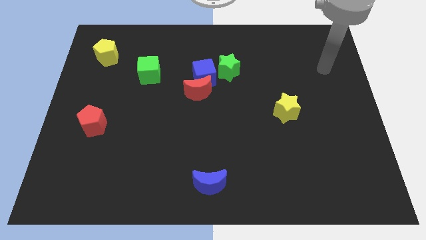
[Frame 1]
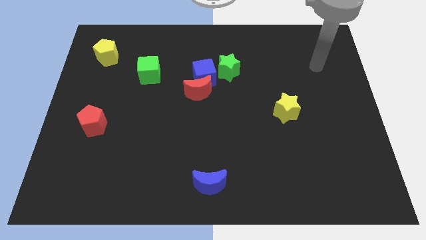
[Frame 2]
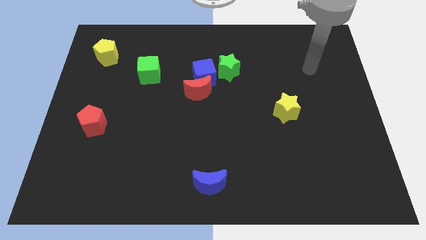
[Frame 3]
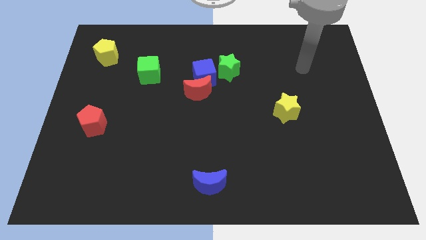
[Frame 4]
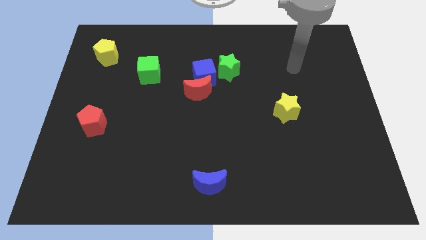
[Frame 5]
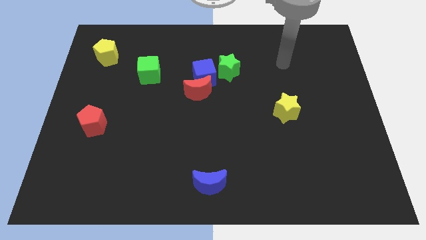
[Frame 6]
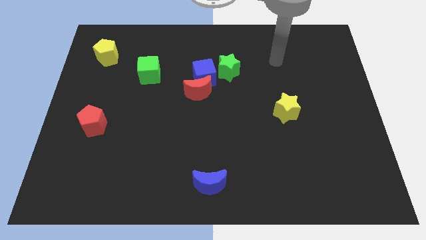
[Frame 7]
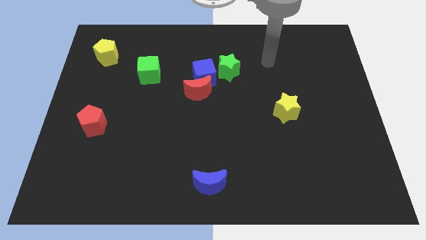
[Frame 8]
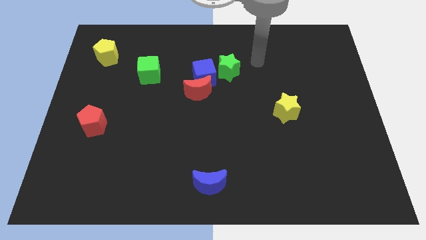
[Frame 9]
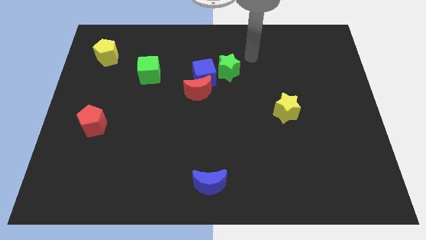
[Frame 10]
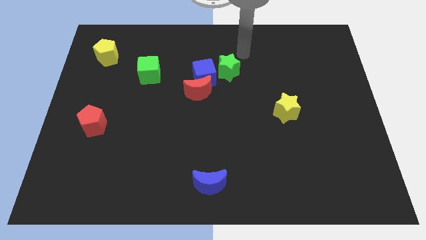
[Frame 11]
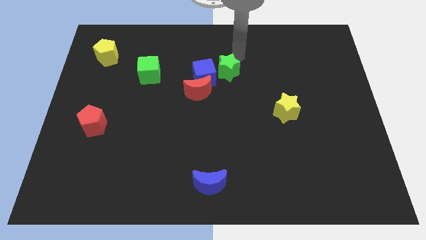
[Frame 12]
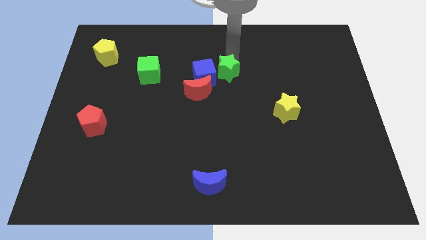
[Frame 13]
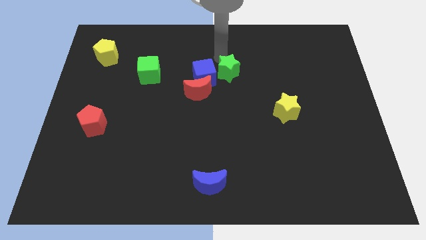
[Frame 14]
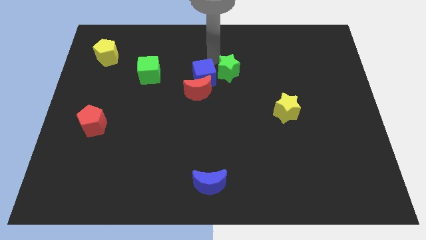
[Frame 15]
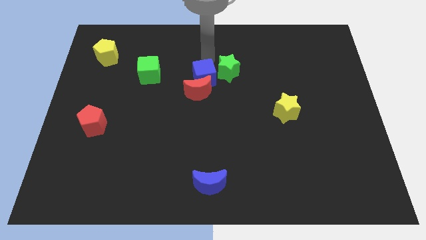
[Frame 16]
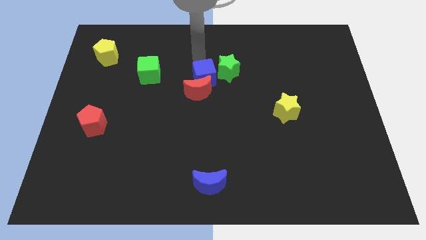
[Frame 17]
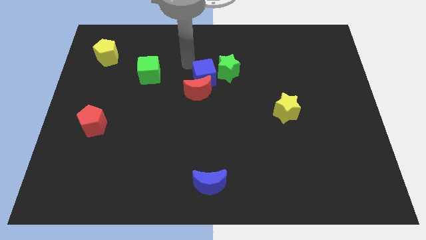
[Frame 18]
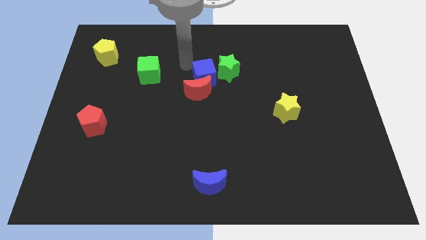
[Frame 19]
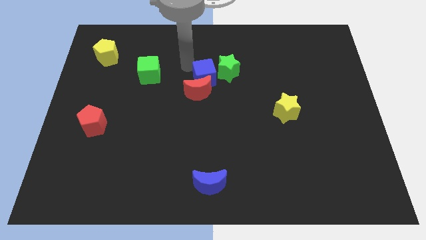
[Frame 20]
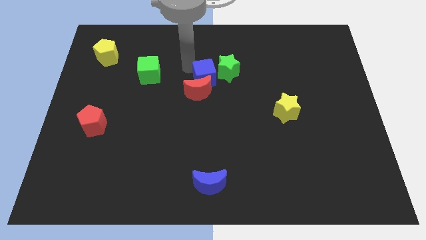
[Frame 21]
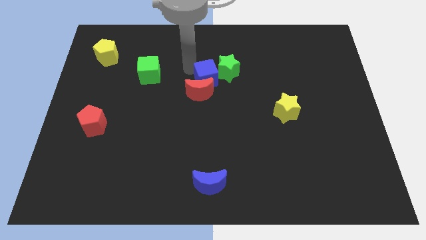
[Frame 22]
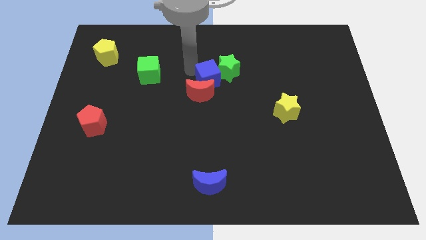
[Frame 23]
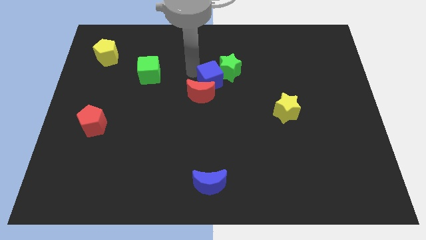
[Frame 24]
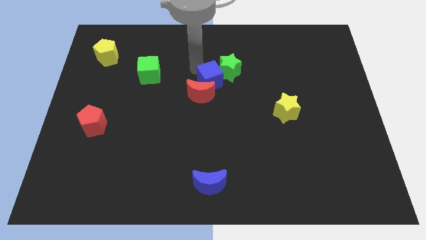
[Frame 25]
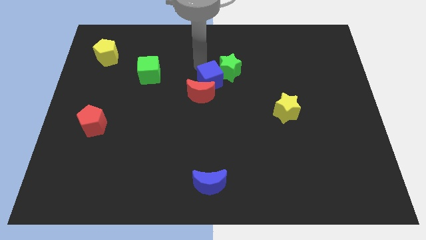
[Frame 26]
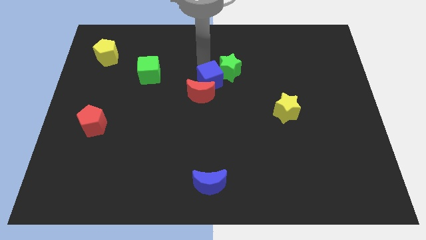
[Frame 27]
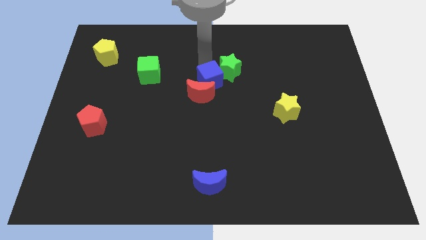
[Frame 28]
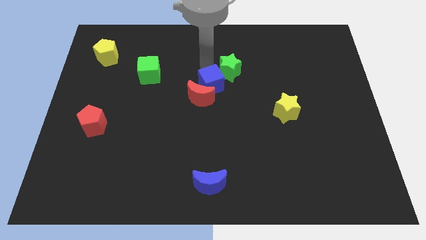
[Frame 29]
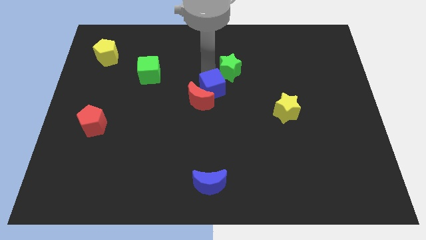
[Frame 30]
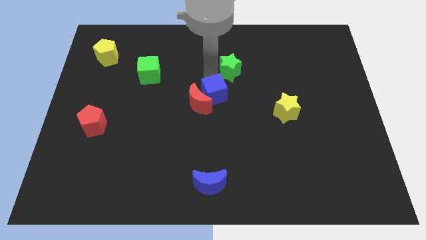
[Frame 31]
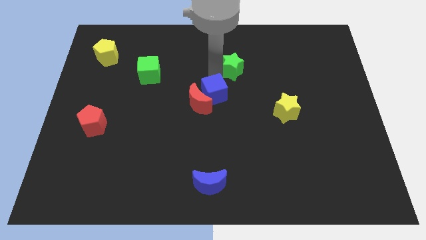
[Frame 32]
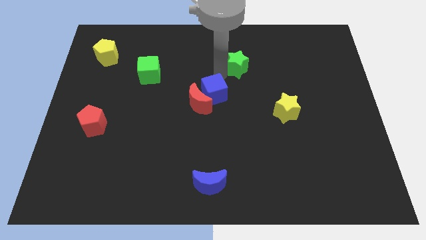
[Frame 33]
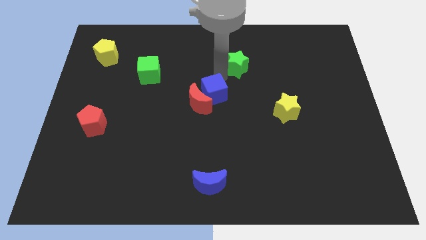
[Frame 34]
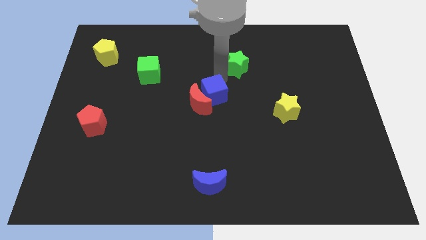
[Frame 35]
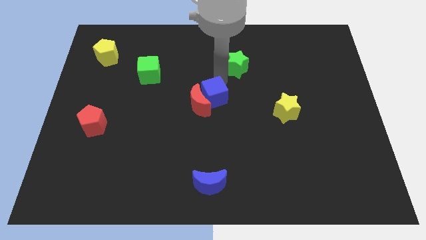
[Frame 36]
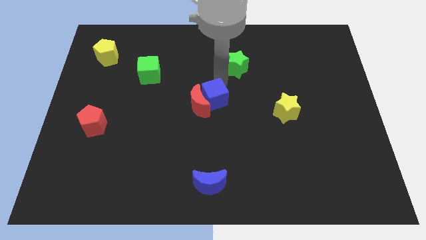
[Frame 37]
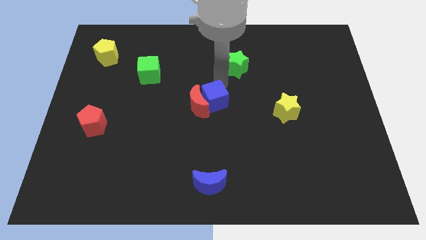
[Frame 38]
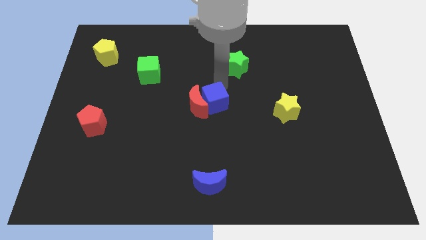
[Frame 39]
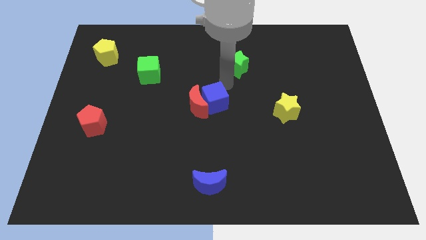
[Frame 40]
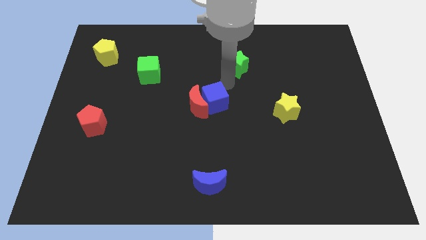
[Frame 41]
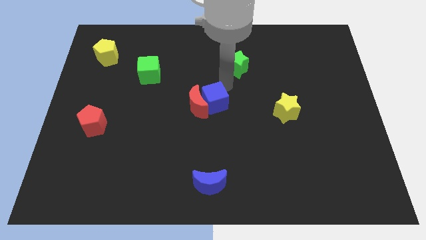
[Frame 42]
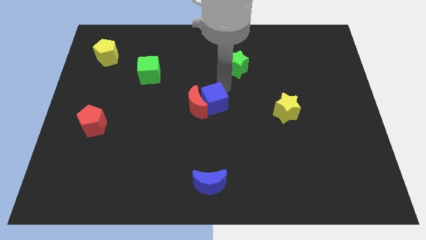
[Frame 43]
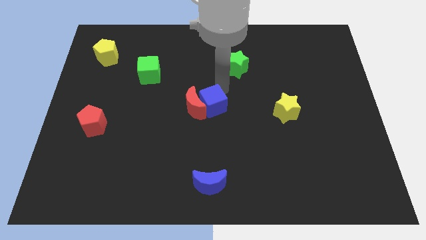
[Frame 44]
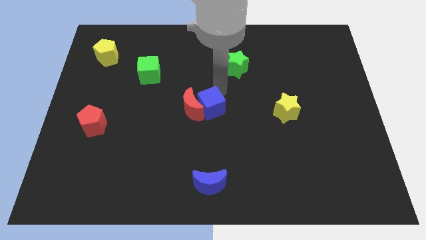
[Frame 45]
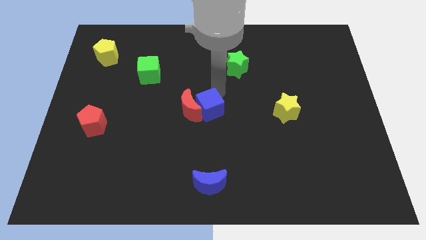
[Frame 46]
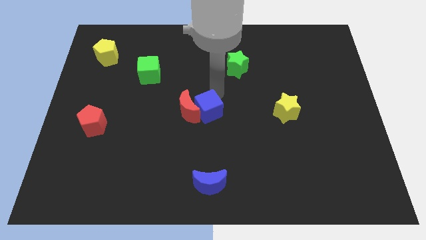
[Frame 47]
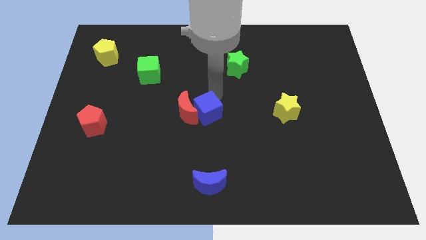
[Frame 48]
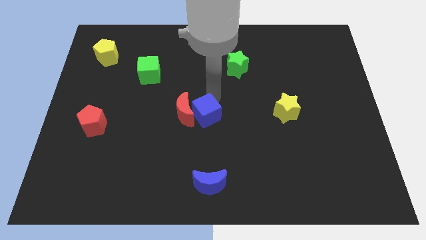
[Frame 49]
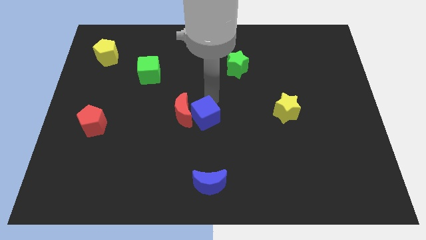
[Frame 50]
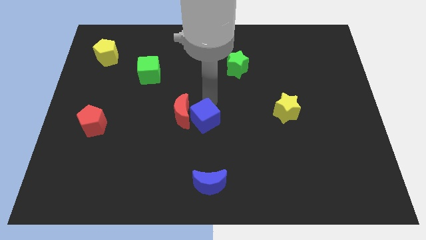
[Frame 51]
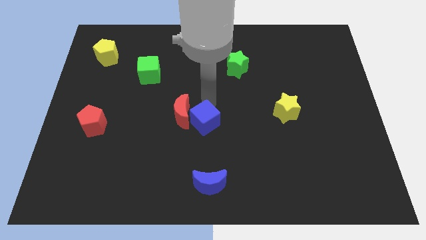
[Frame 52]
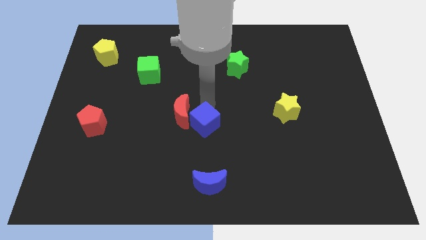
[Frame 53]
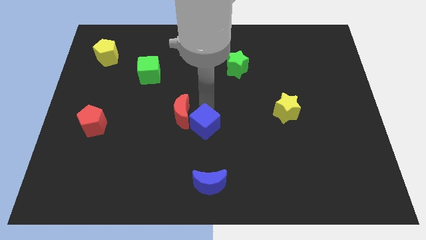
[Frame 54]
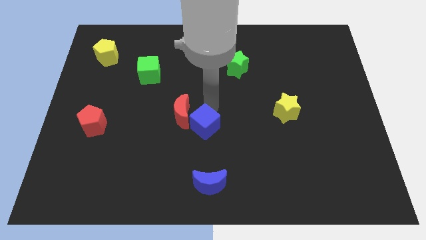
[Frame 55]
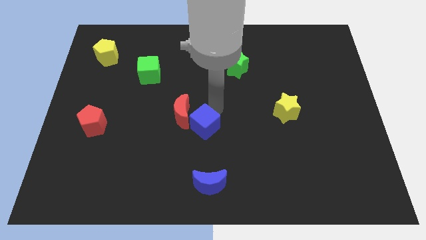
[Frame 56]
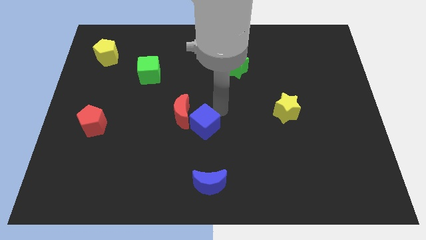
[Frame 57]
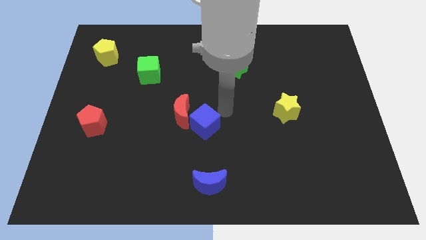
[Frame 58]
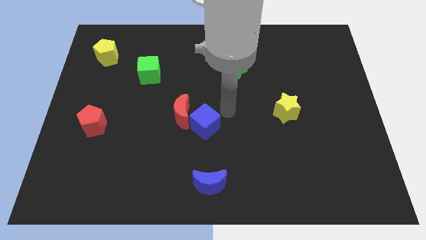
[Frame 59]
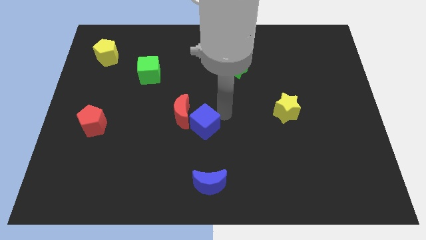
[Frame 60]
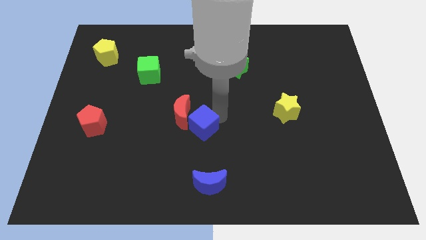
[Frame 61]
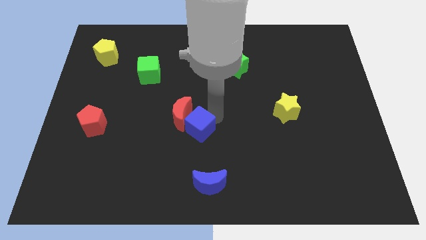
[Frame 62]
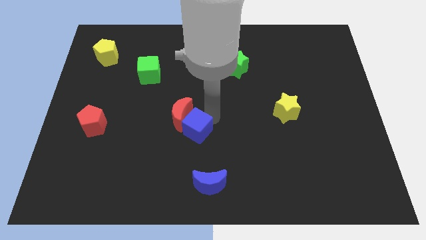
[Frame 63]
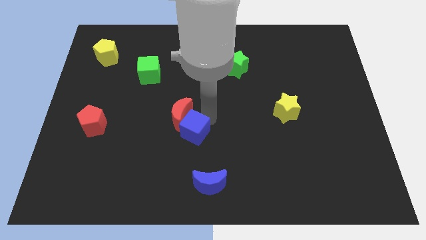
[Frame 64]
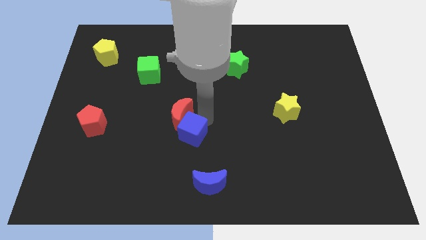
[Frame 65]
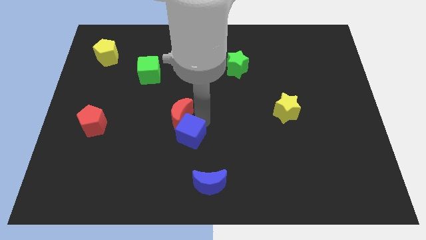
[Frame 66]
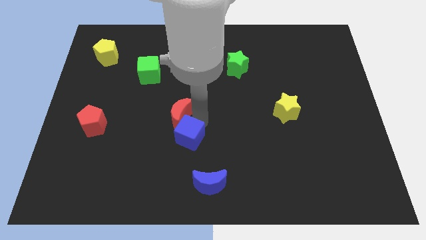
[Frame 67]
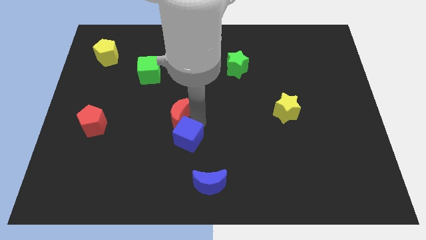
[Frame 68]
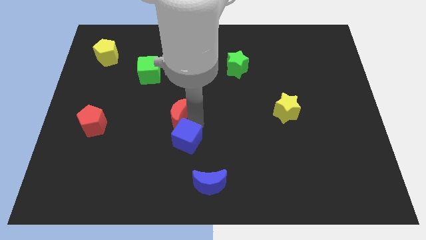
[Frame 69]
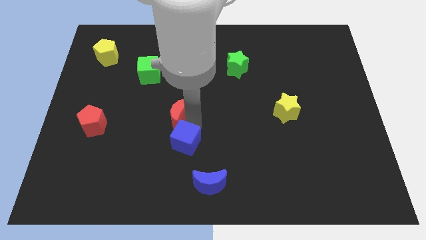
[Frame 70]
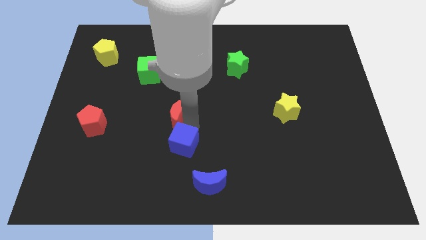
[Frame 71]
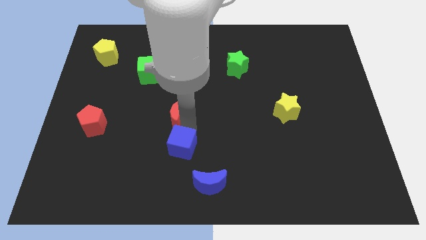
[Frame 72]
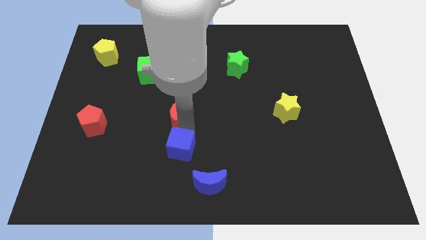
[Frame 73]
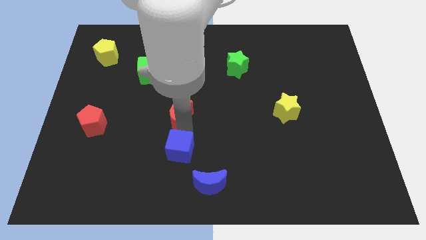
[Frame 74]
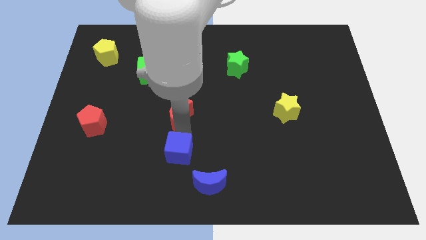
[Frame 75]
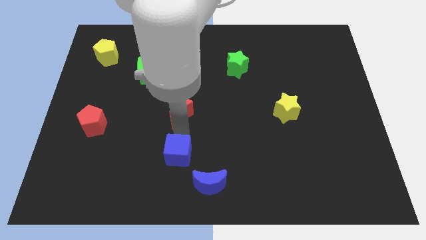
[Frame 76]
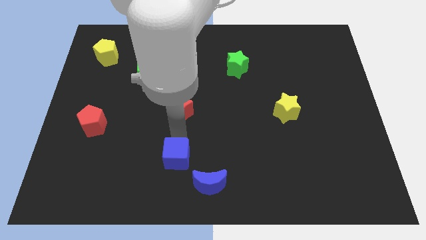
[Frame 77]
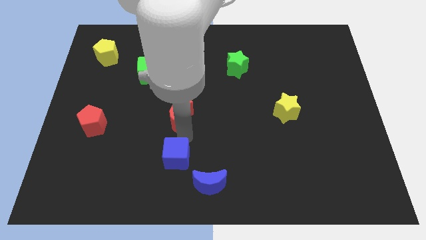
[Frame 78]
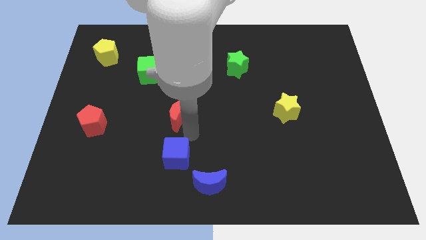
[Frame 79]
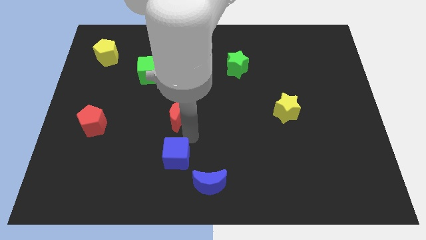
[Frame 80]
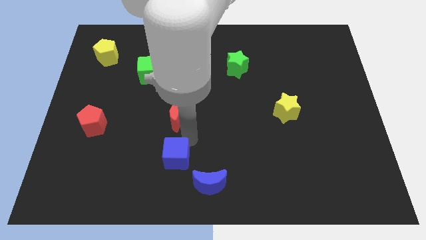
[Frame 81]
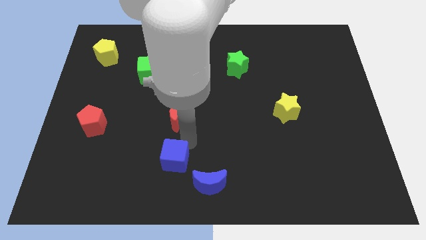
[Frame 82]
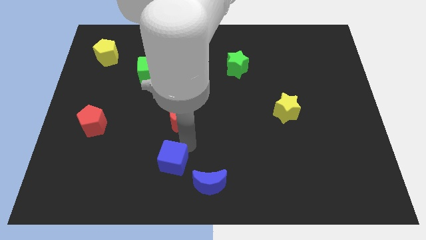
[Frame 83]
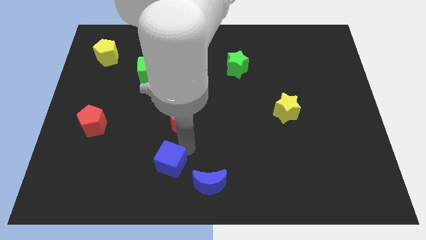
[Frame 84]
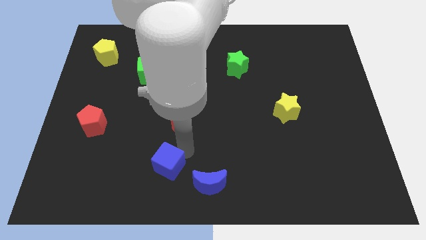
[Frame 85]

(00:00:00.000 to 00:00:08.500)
slide the blue cube left of the blue moon
